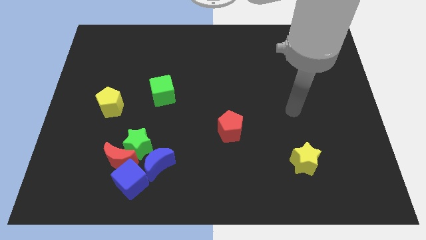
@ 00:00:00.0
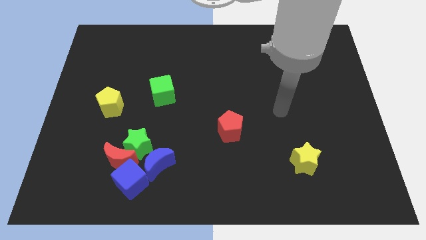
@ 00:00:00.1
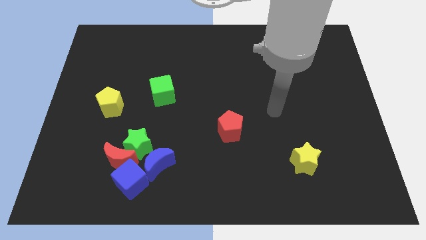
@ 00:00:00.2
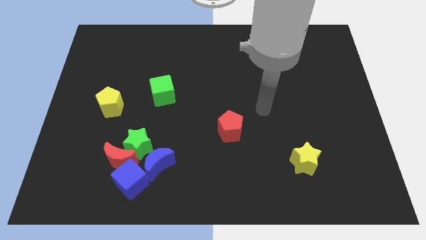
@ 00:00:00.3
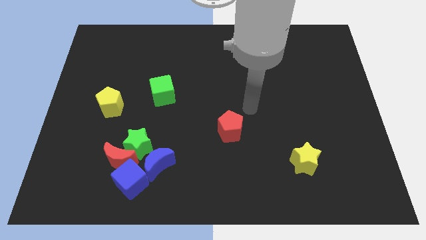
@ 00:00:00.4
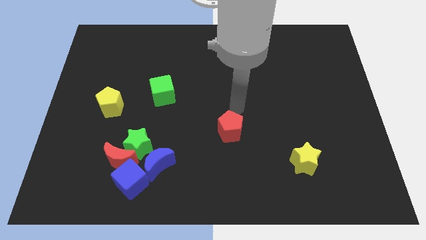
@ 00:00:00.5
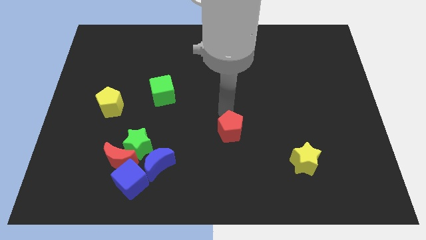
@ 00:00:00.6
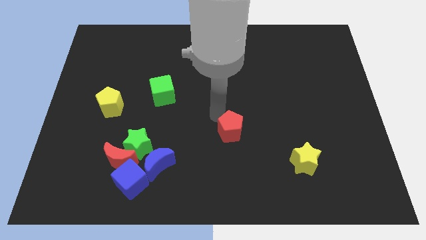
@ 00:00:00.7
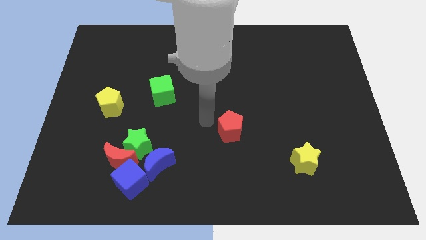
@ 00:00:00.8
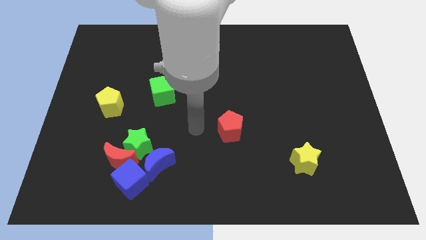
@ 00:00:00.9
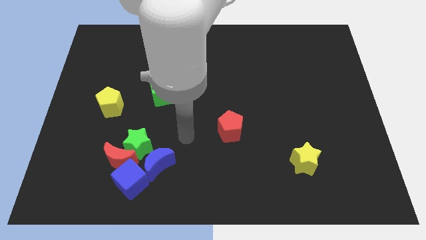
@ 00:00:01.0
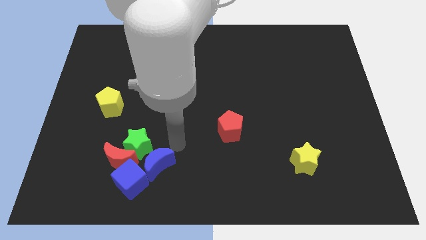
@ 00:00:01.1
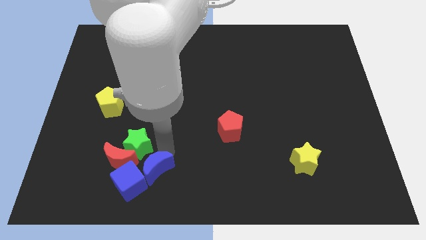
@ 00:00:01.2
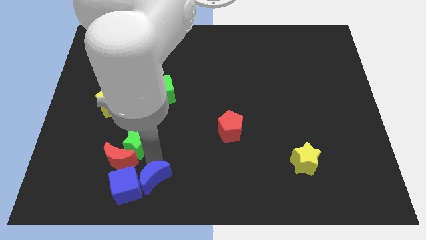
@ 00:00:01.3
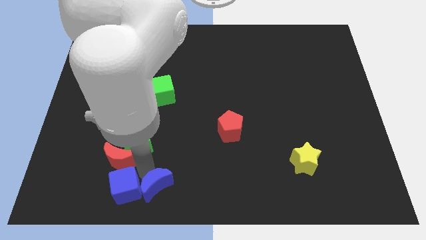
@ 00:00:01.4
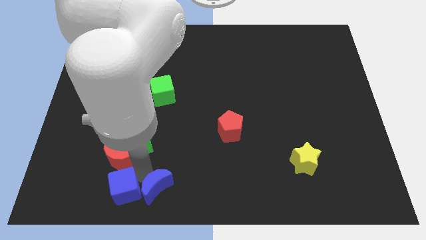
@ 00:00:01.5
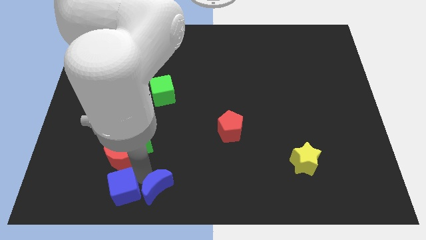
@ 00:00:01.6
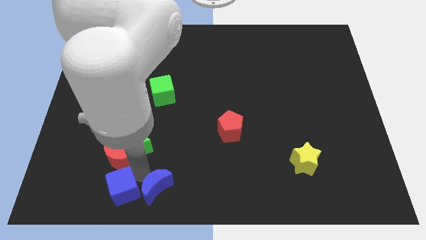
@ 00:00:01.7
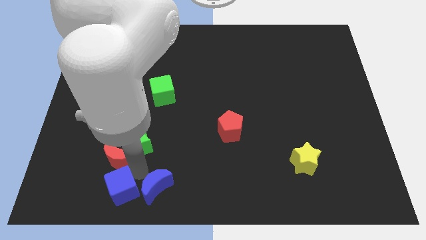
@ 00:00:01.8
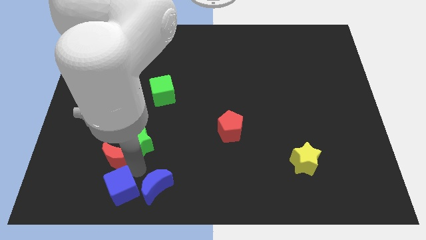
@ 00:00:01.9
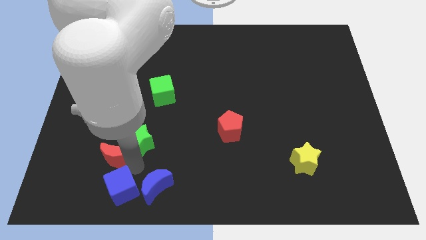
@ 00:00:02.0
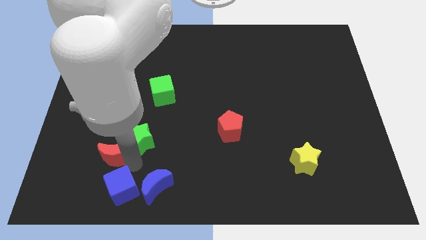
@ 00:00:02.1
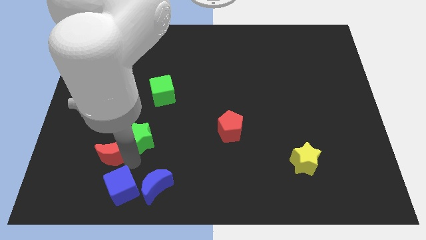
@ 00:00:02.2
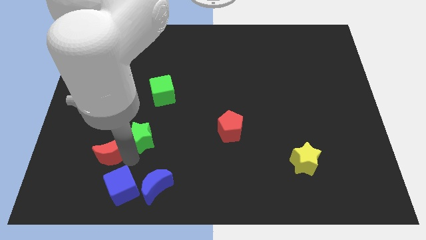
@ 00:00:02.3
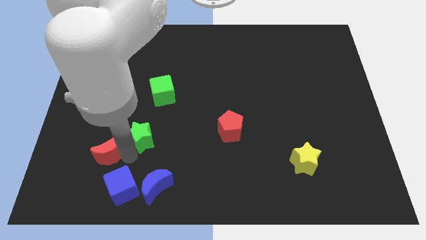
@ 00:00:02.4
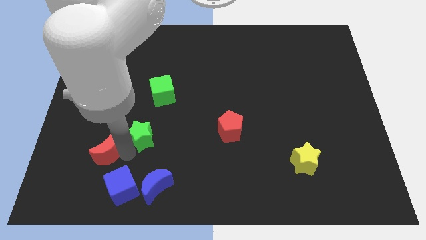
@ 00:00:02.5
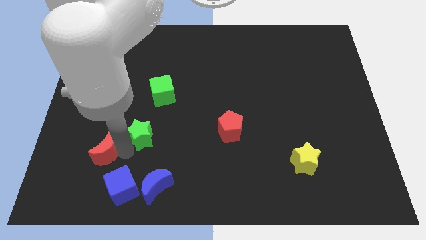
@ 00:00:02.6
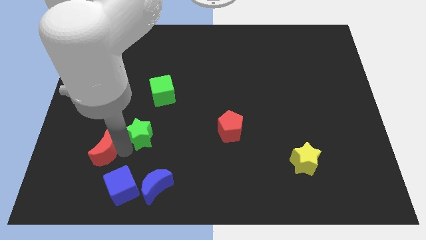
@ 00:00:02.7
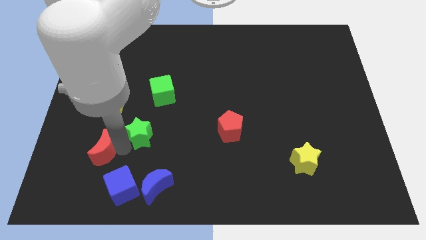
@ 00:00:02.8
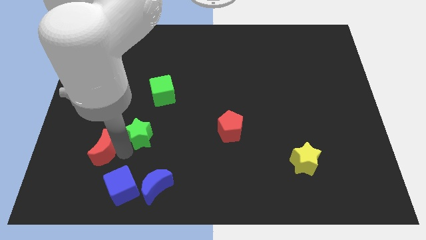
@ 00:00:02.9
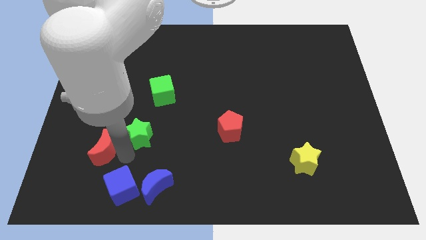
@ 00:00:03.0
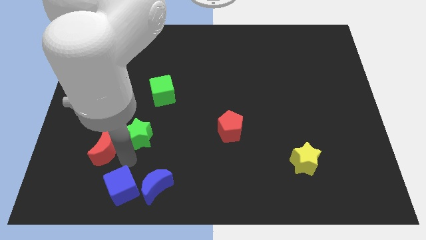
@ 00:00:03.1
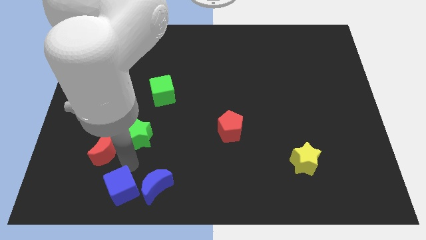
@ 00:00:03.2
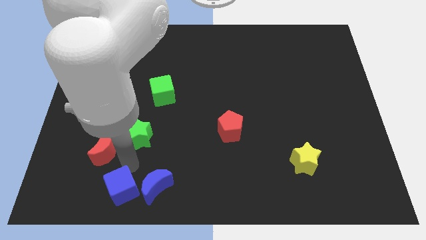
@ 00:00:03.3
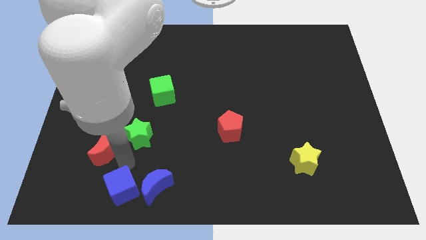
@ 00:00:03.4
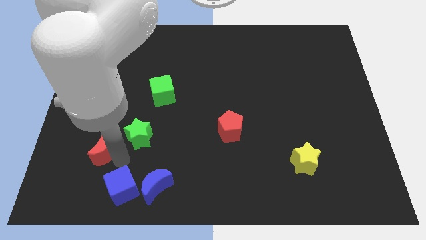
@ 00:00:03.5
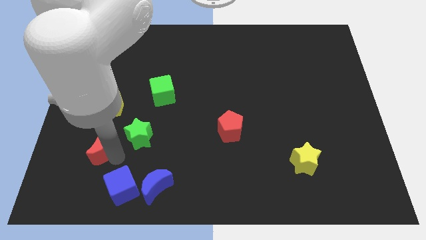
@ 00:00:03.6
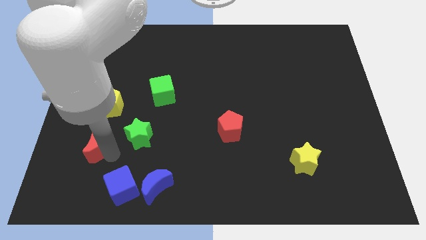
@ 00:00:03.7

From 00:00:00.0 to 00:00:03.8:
pull the red moon apart from the green star, blue cube, and blue moon

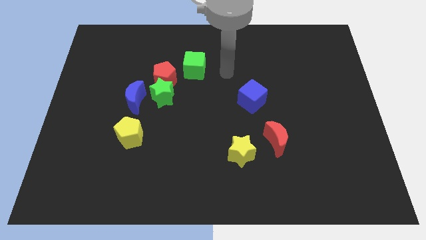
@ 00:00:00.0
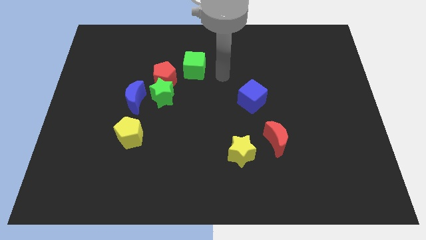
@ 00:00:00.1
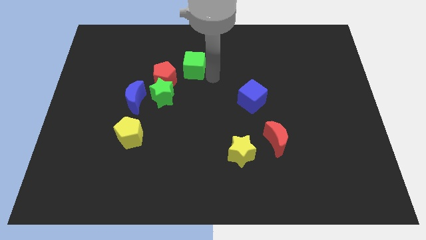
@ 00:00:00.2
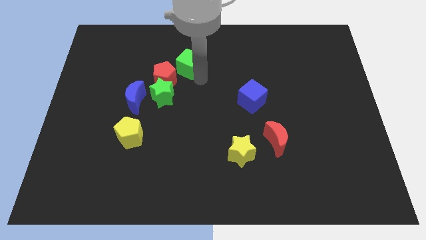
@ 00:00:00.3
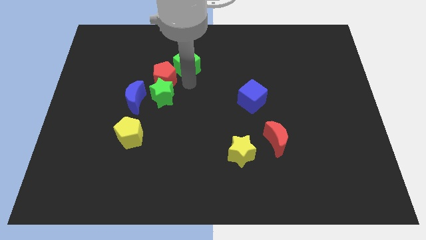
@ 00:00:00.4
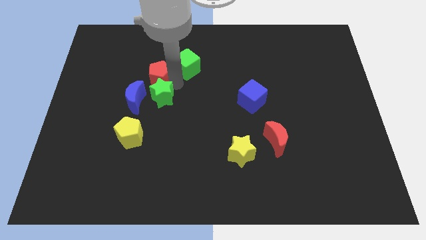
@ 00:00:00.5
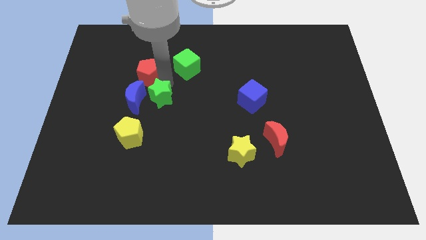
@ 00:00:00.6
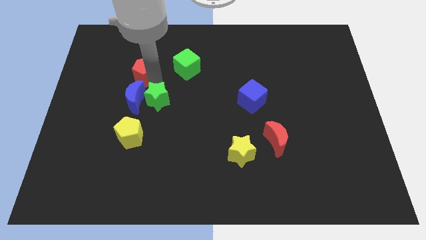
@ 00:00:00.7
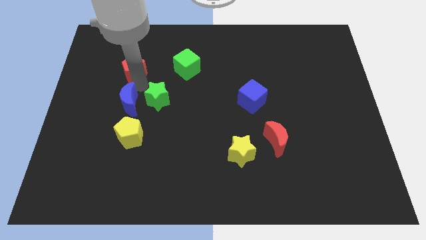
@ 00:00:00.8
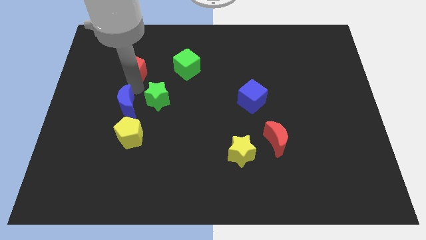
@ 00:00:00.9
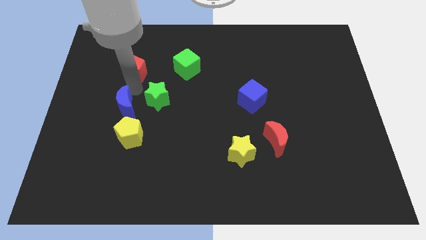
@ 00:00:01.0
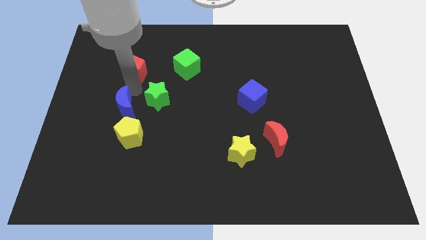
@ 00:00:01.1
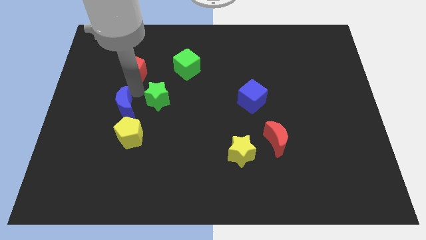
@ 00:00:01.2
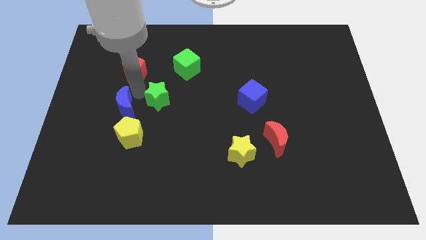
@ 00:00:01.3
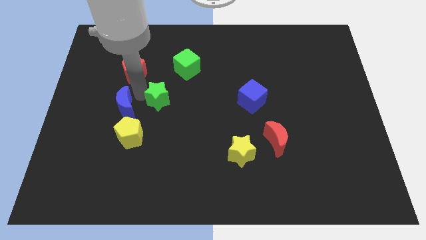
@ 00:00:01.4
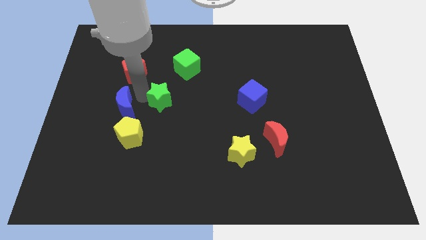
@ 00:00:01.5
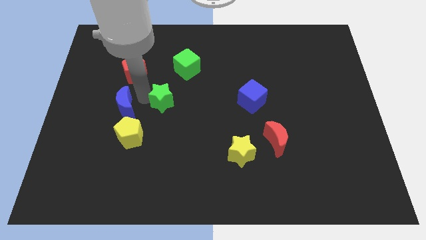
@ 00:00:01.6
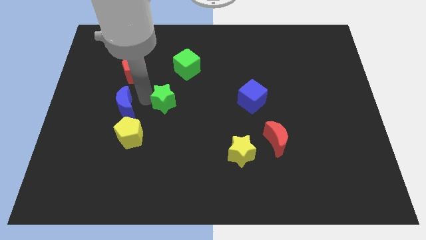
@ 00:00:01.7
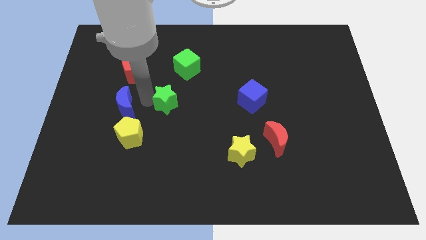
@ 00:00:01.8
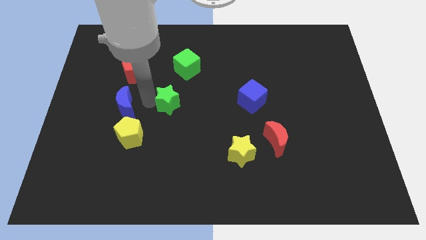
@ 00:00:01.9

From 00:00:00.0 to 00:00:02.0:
pull the green star apart from the red pentagon and blue moon

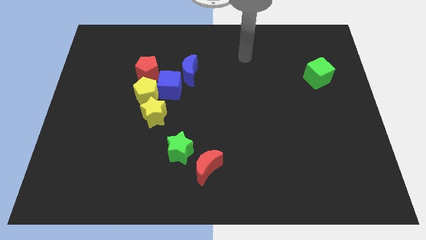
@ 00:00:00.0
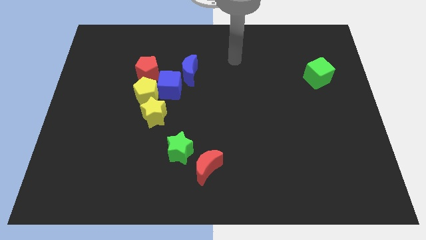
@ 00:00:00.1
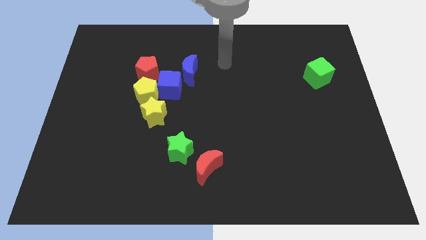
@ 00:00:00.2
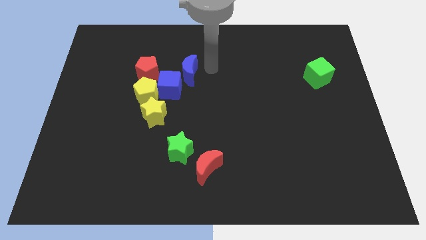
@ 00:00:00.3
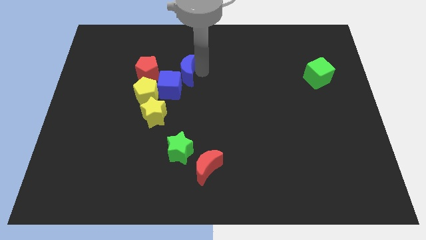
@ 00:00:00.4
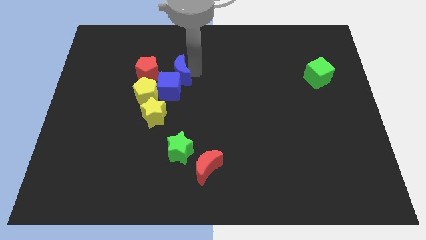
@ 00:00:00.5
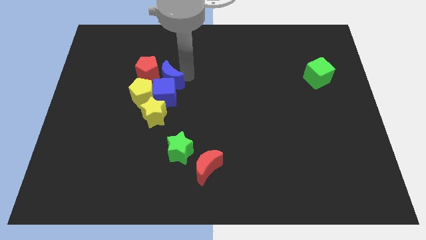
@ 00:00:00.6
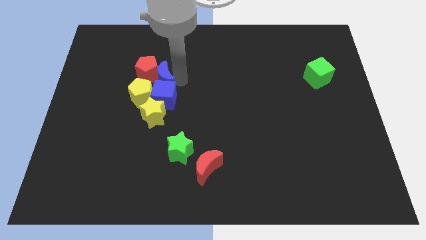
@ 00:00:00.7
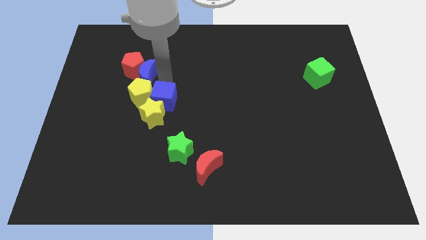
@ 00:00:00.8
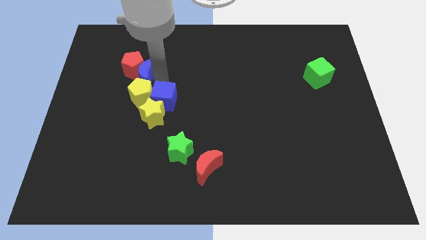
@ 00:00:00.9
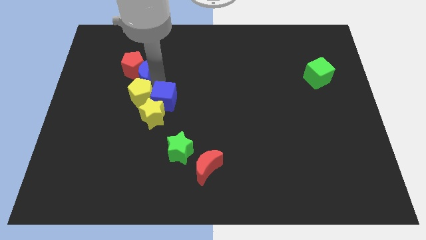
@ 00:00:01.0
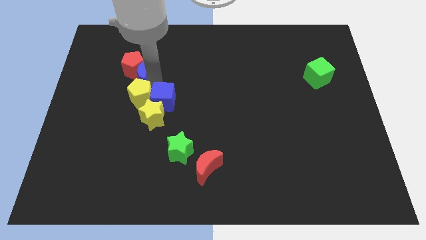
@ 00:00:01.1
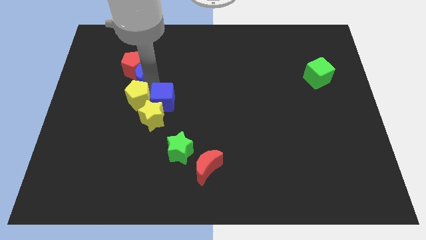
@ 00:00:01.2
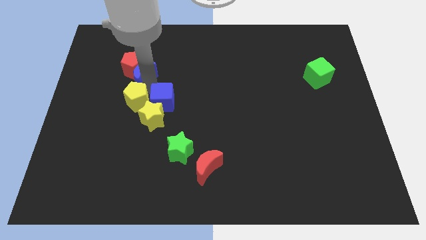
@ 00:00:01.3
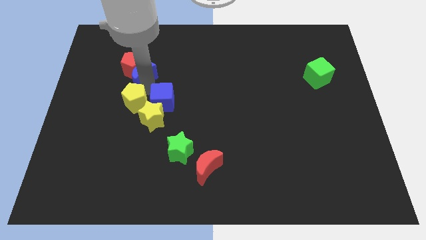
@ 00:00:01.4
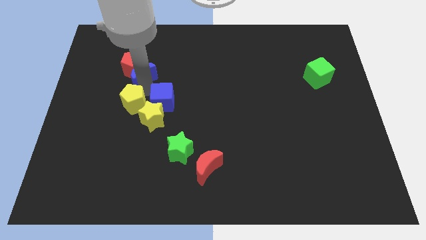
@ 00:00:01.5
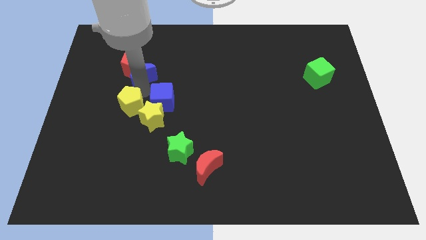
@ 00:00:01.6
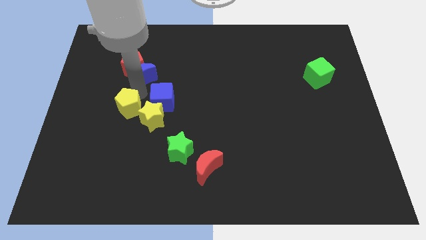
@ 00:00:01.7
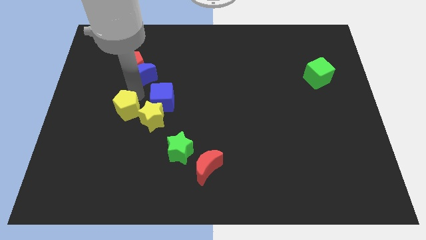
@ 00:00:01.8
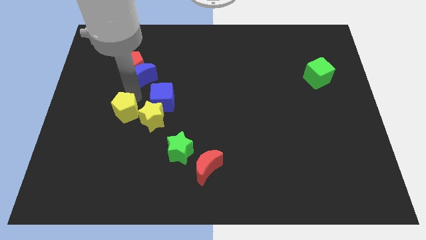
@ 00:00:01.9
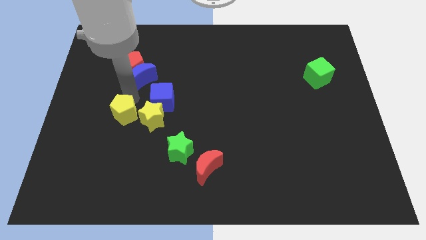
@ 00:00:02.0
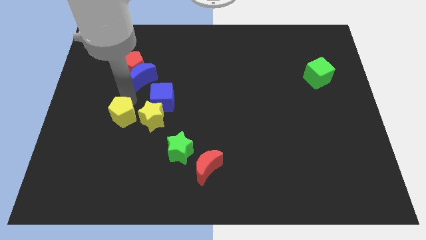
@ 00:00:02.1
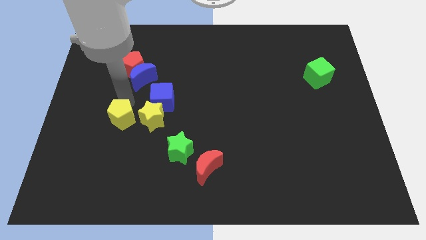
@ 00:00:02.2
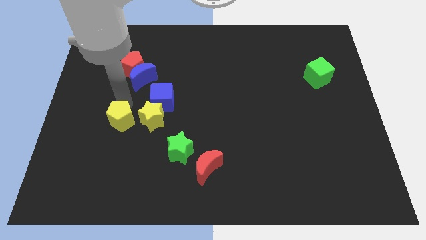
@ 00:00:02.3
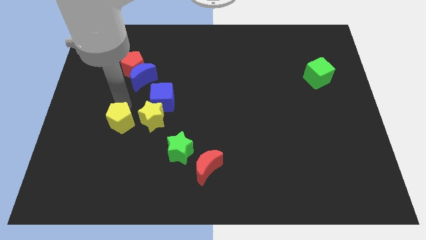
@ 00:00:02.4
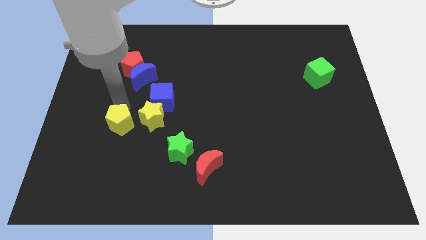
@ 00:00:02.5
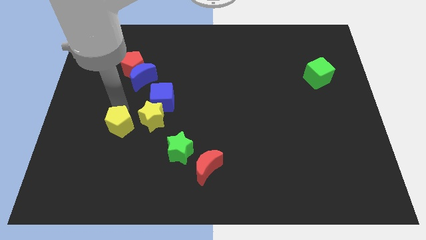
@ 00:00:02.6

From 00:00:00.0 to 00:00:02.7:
pull the yellow pentagon apart from the blue cube, yellow star, and red pentagon

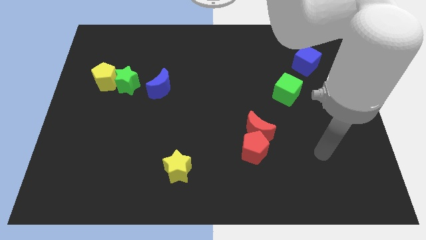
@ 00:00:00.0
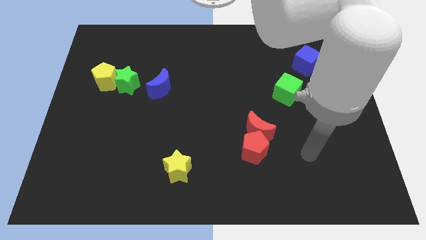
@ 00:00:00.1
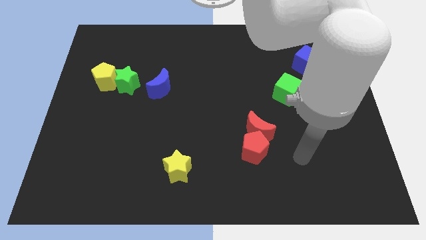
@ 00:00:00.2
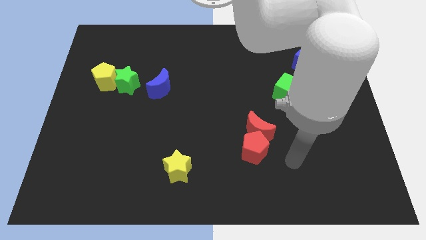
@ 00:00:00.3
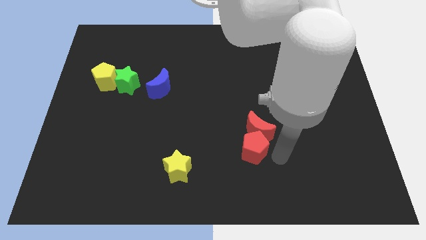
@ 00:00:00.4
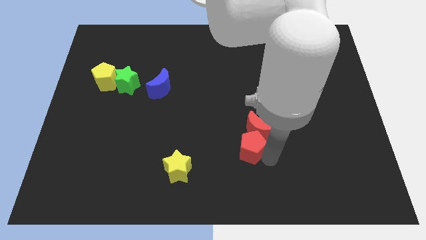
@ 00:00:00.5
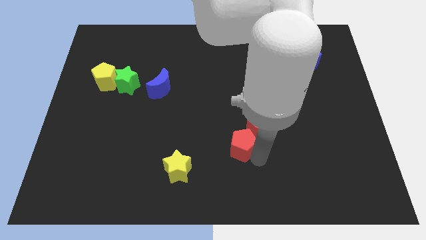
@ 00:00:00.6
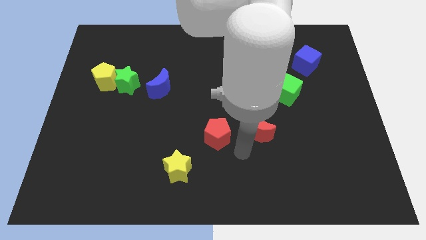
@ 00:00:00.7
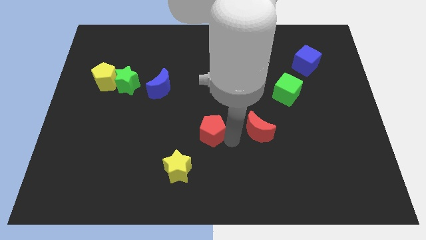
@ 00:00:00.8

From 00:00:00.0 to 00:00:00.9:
move the red moon away from the red pentagon
